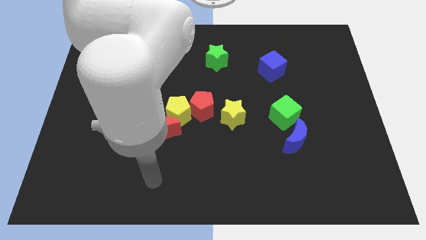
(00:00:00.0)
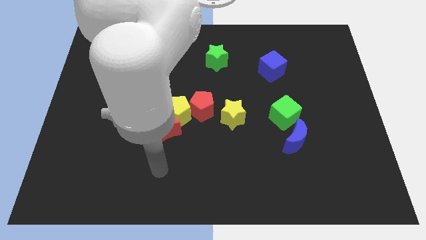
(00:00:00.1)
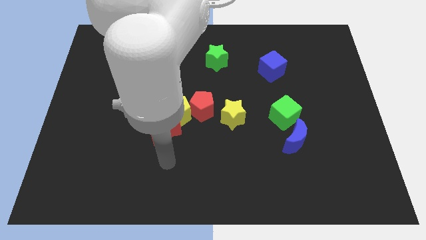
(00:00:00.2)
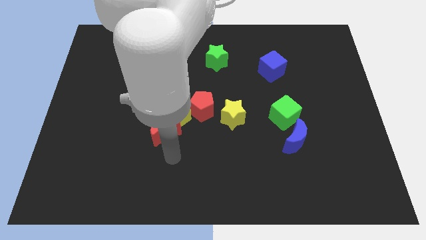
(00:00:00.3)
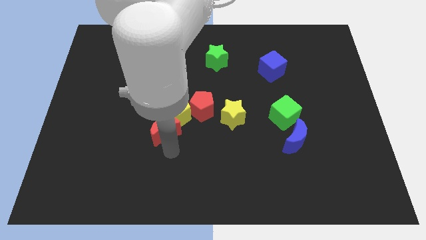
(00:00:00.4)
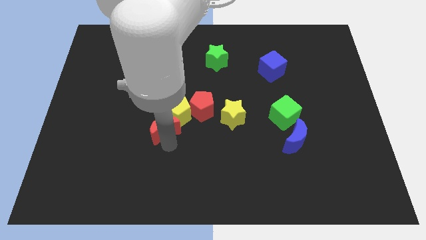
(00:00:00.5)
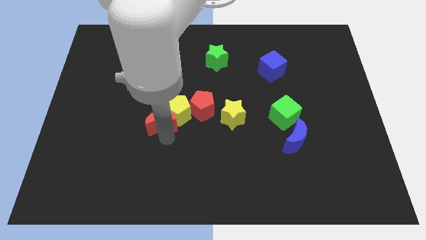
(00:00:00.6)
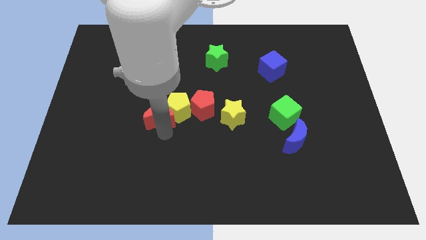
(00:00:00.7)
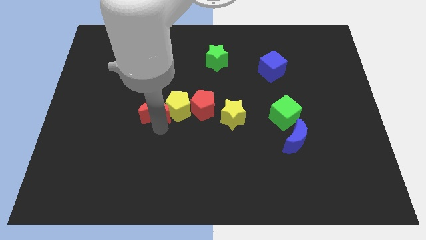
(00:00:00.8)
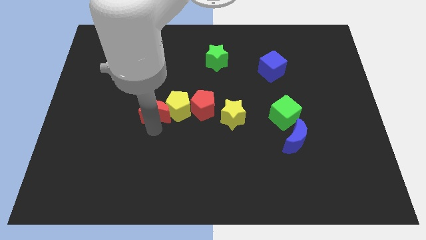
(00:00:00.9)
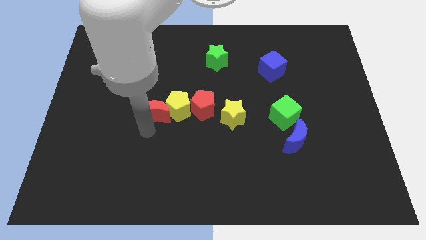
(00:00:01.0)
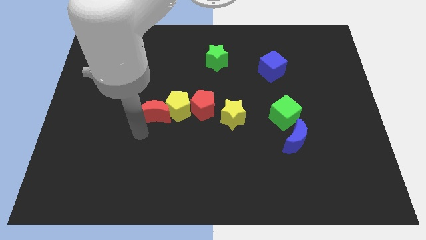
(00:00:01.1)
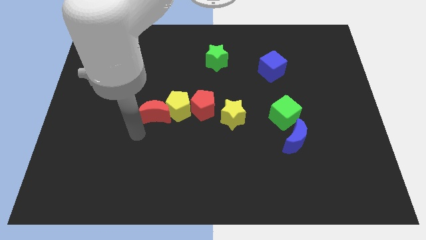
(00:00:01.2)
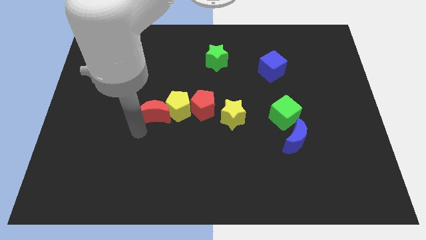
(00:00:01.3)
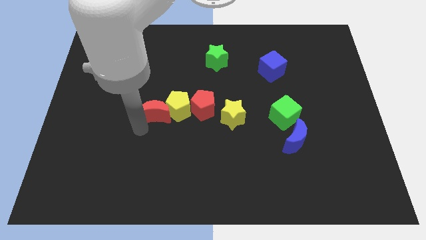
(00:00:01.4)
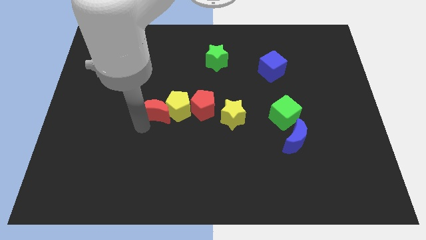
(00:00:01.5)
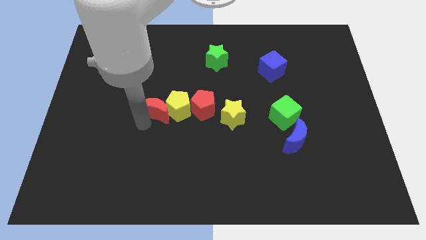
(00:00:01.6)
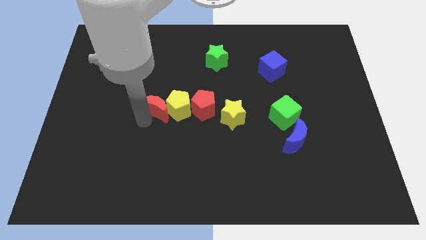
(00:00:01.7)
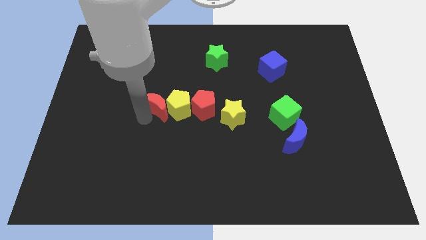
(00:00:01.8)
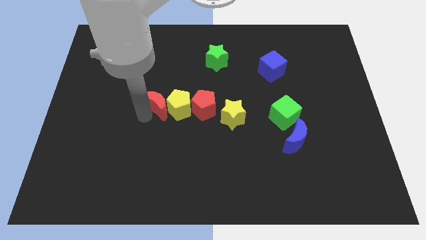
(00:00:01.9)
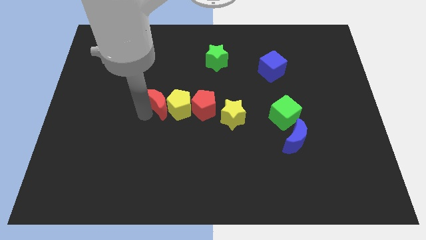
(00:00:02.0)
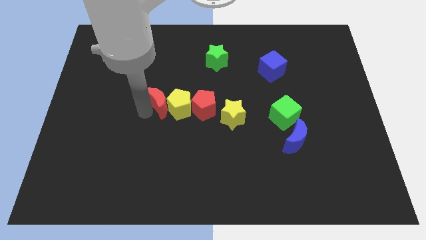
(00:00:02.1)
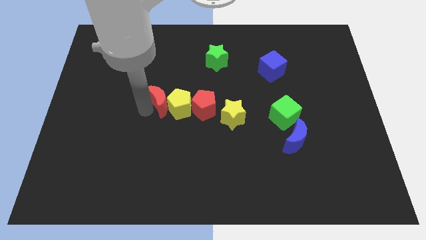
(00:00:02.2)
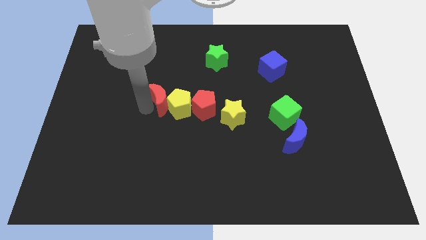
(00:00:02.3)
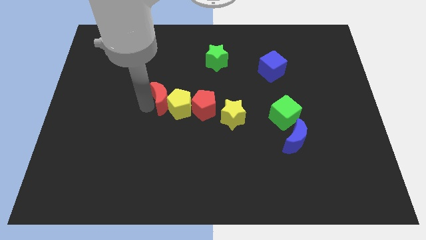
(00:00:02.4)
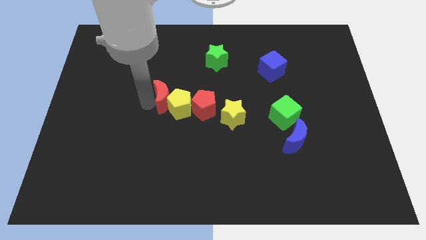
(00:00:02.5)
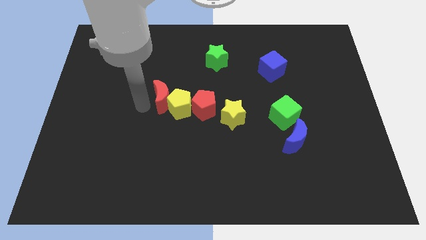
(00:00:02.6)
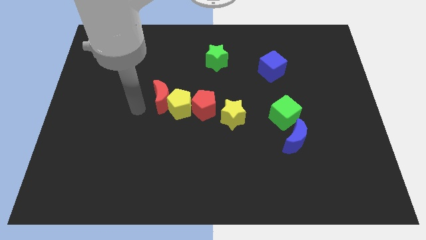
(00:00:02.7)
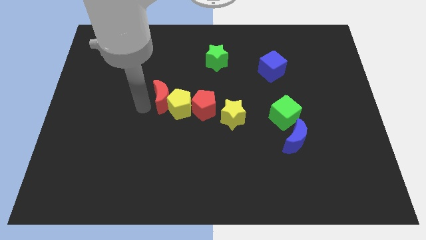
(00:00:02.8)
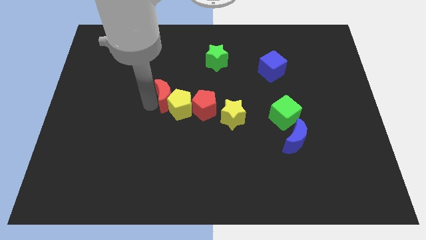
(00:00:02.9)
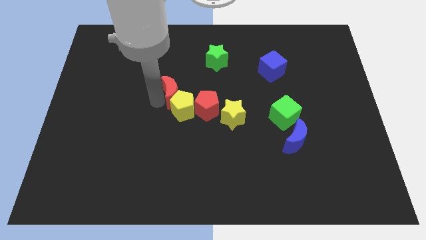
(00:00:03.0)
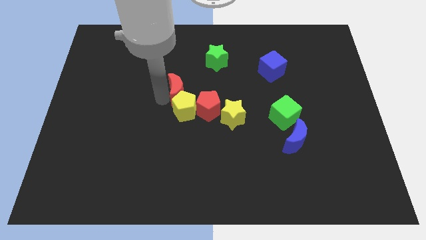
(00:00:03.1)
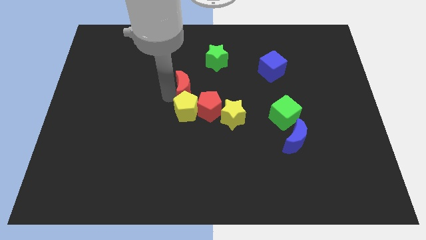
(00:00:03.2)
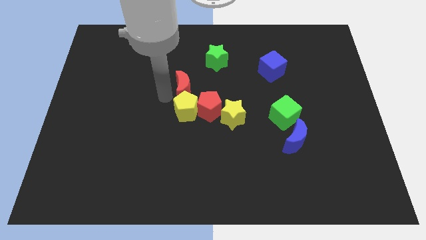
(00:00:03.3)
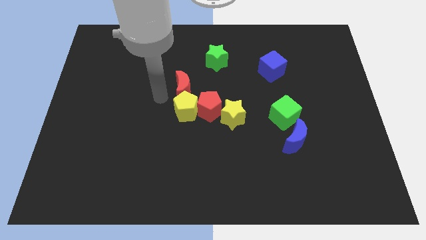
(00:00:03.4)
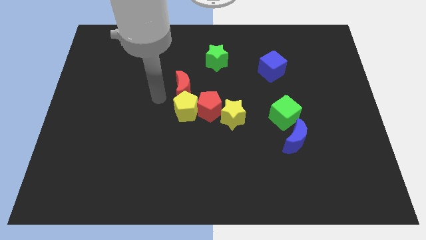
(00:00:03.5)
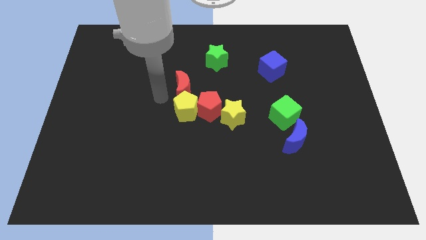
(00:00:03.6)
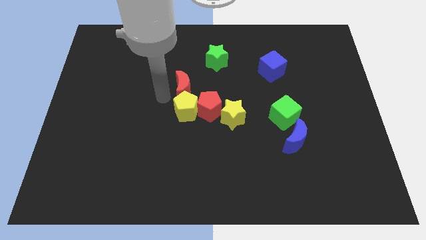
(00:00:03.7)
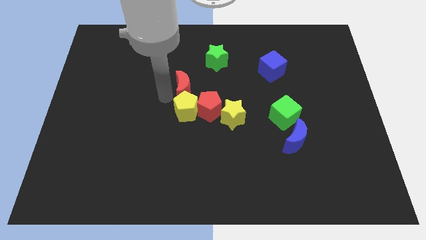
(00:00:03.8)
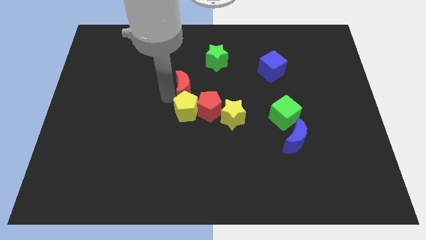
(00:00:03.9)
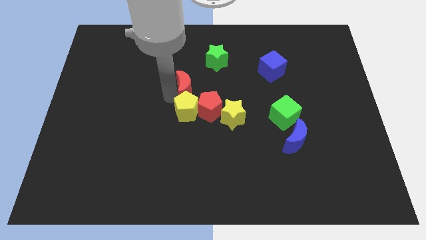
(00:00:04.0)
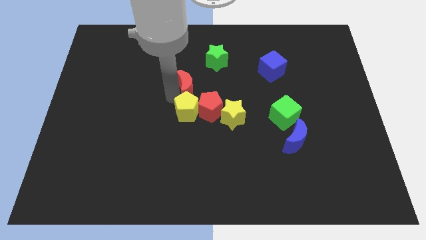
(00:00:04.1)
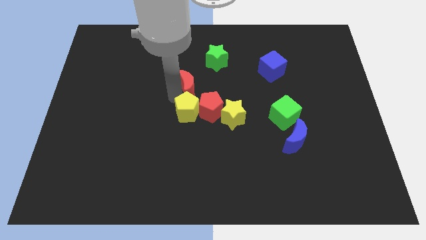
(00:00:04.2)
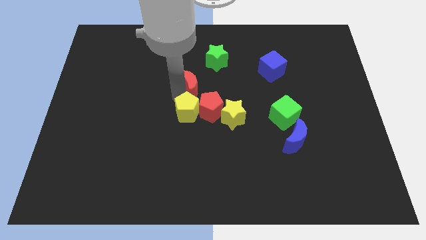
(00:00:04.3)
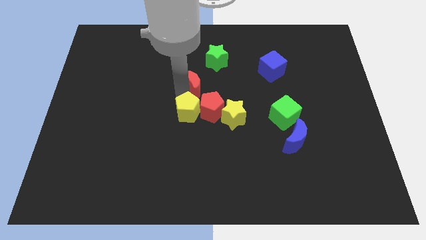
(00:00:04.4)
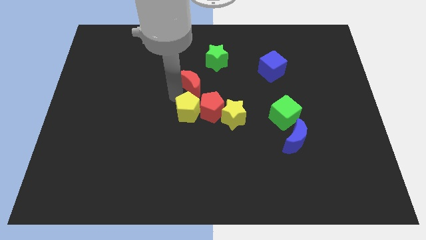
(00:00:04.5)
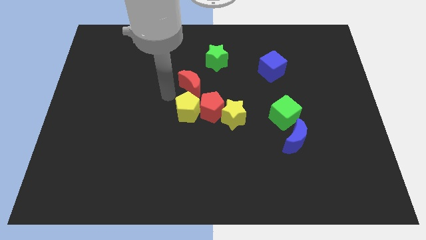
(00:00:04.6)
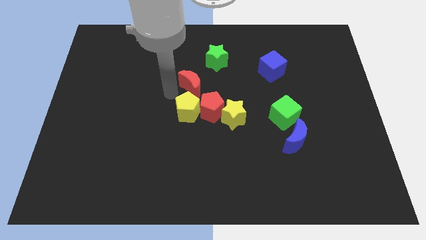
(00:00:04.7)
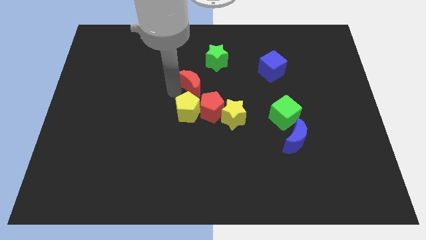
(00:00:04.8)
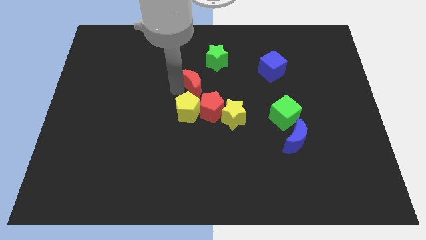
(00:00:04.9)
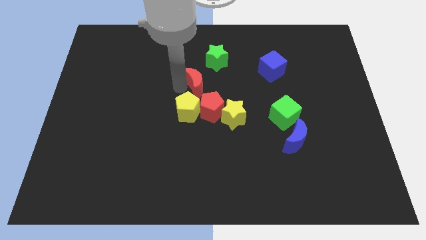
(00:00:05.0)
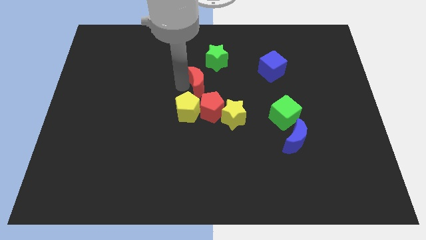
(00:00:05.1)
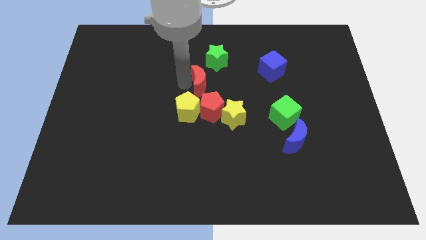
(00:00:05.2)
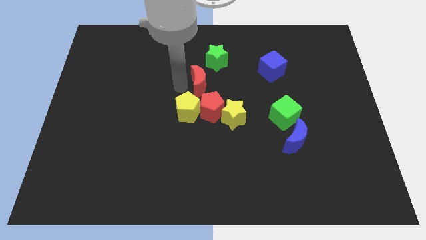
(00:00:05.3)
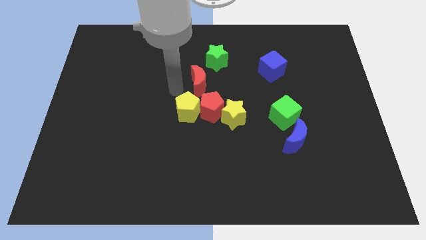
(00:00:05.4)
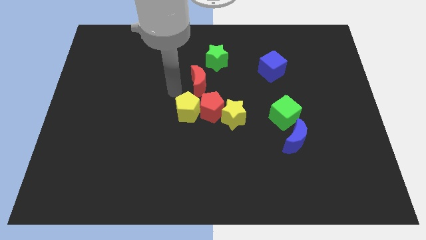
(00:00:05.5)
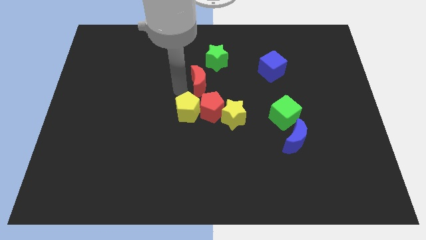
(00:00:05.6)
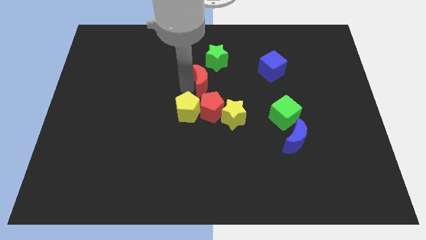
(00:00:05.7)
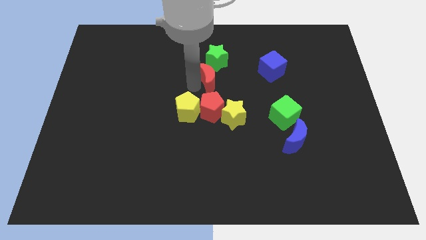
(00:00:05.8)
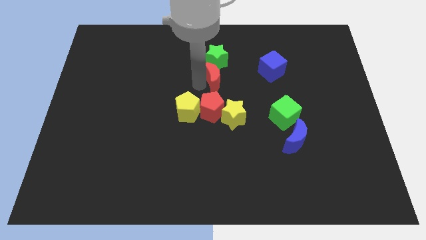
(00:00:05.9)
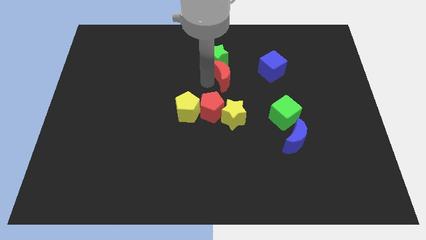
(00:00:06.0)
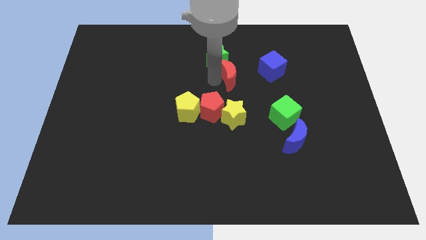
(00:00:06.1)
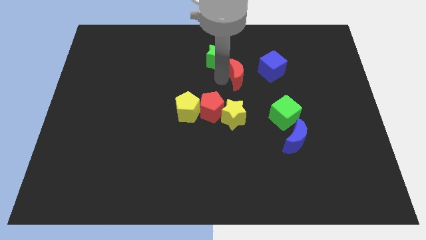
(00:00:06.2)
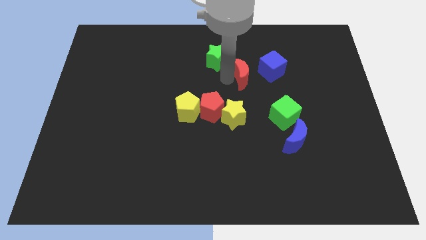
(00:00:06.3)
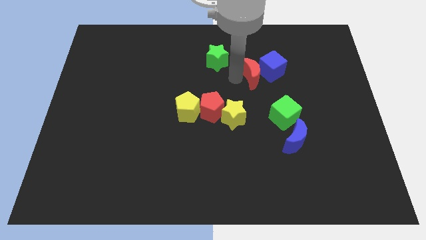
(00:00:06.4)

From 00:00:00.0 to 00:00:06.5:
slide the red moon next to the blue cube
